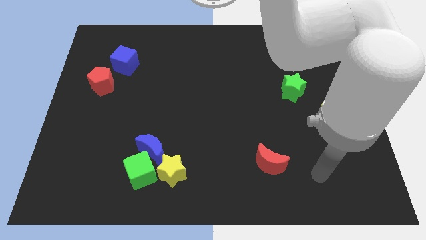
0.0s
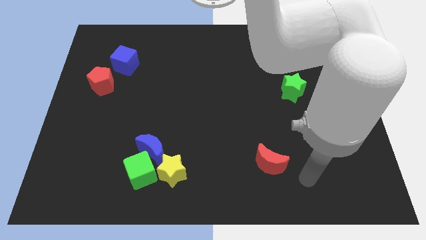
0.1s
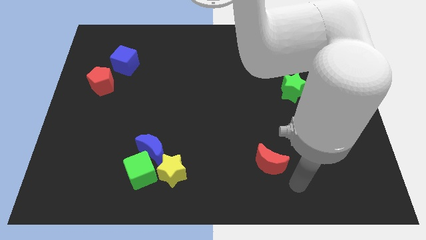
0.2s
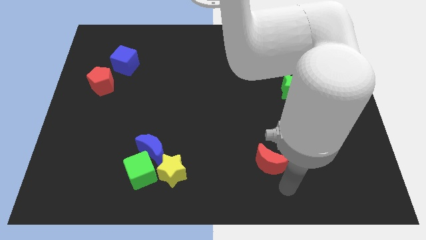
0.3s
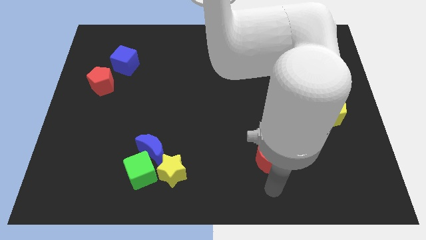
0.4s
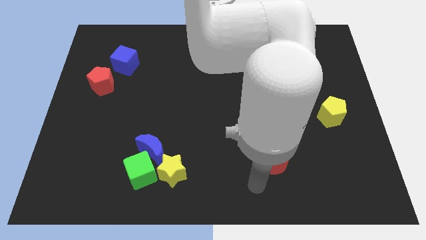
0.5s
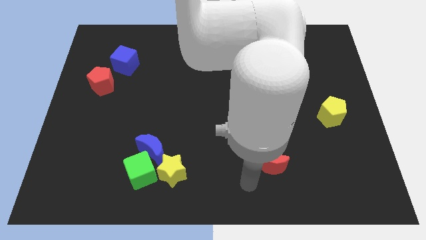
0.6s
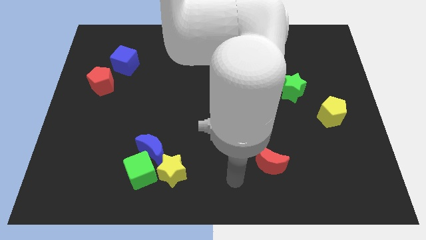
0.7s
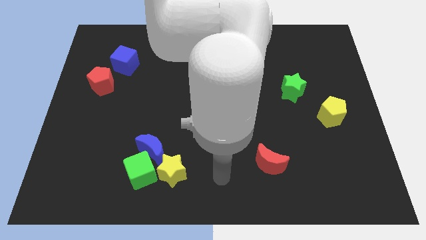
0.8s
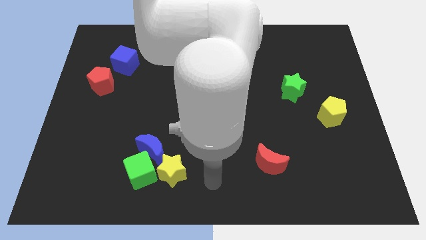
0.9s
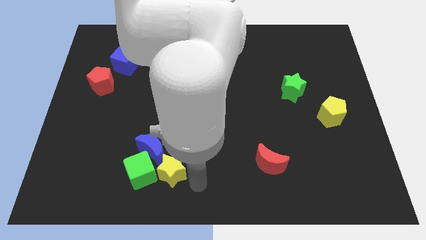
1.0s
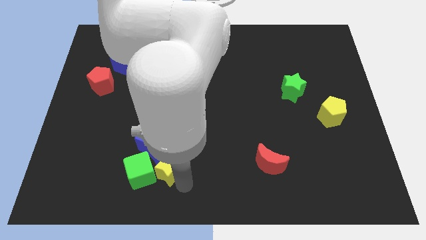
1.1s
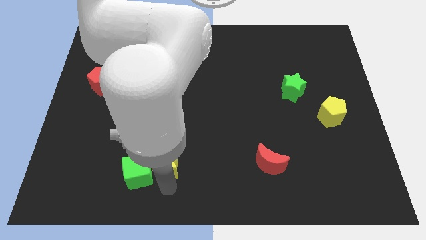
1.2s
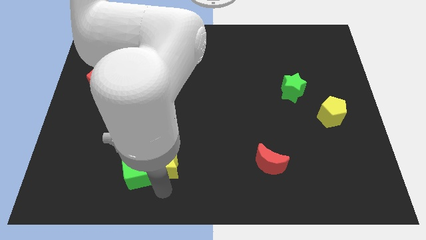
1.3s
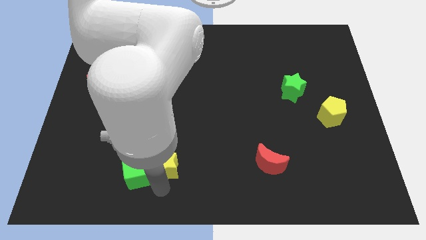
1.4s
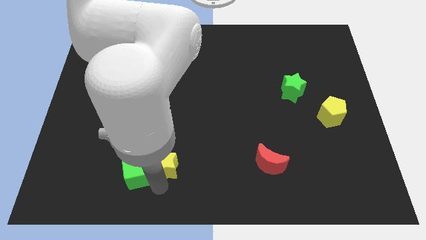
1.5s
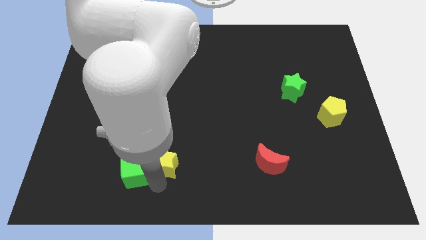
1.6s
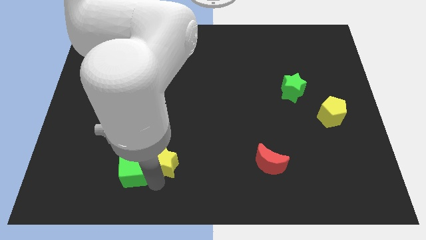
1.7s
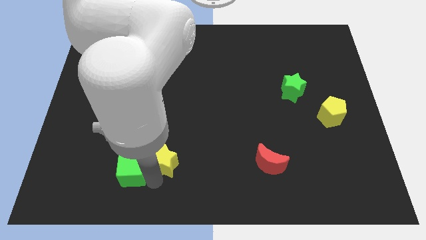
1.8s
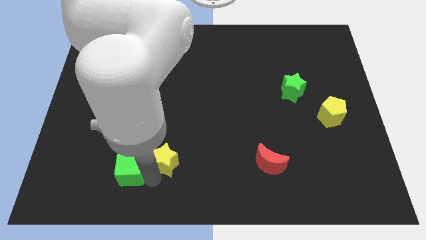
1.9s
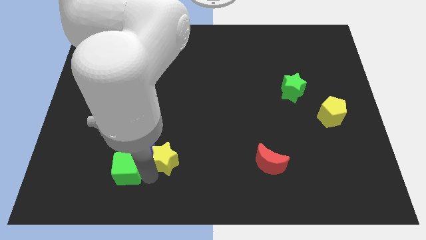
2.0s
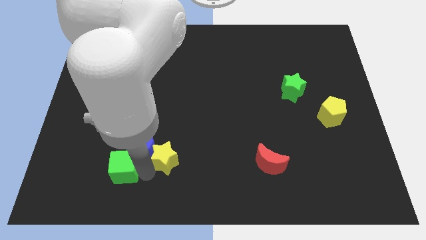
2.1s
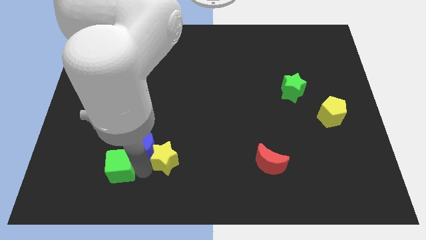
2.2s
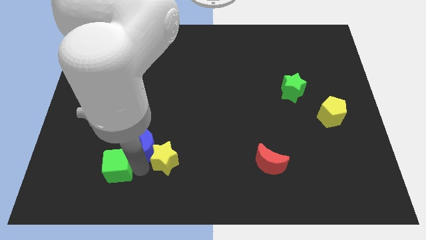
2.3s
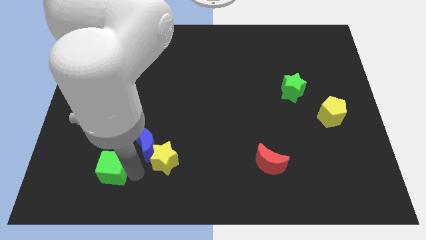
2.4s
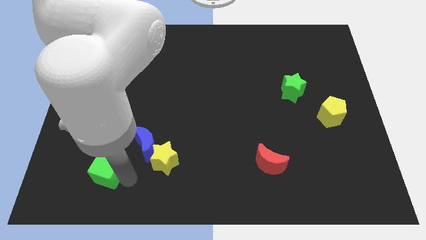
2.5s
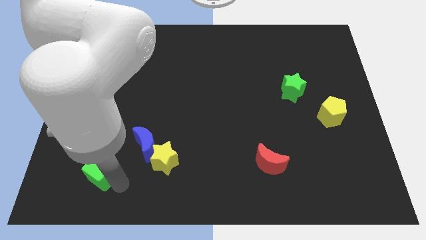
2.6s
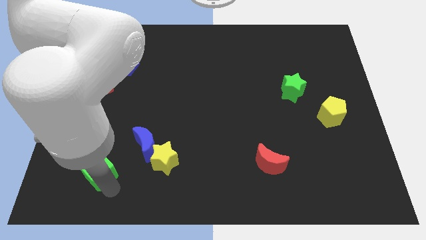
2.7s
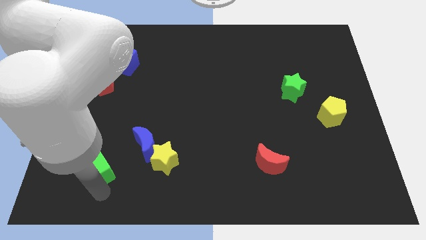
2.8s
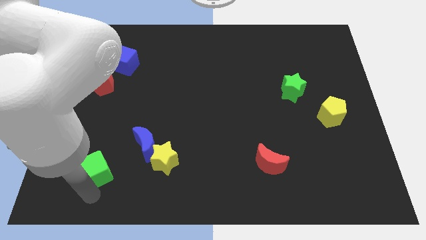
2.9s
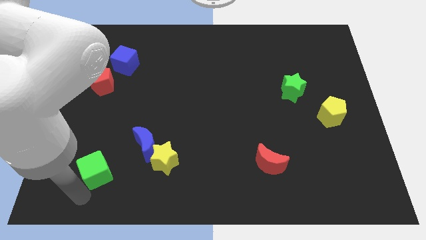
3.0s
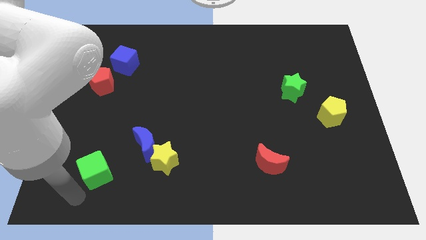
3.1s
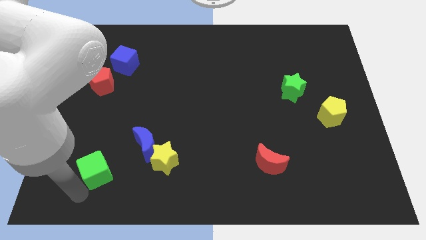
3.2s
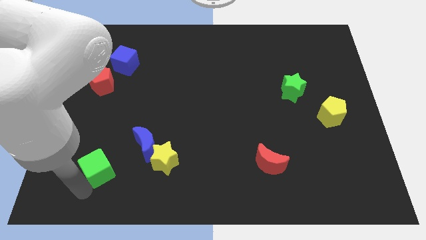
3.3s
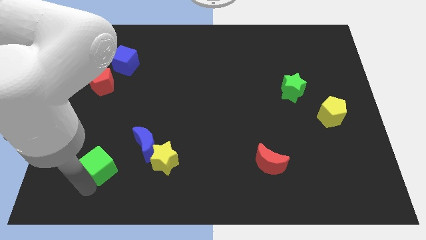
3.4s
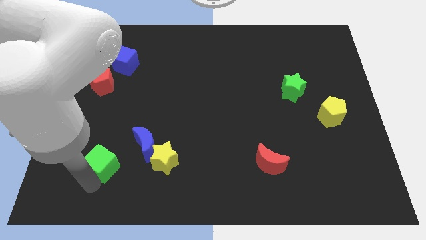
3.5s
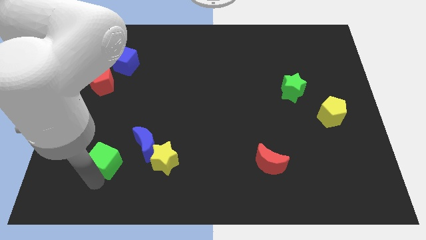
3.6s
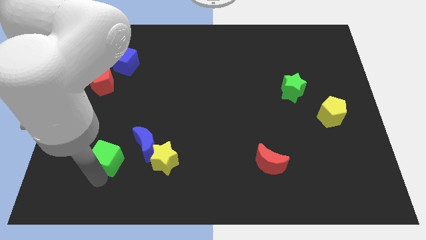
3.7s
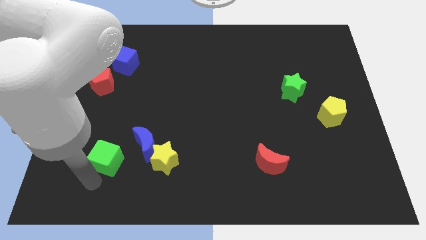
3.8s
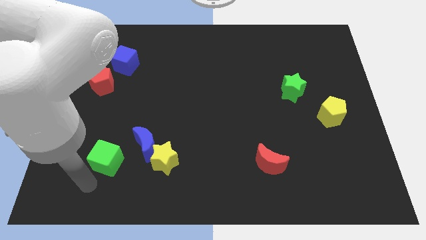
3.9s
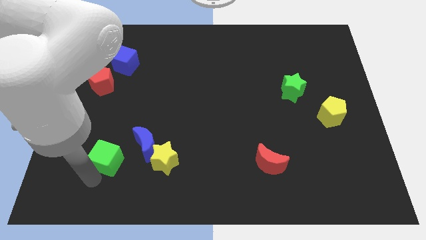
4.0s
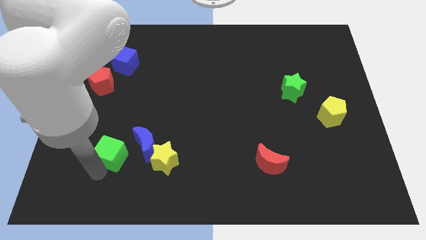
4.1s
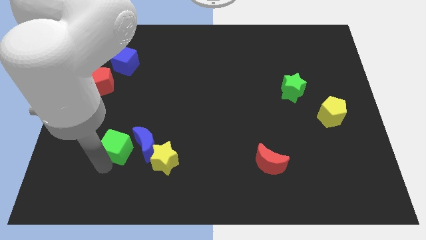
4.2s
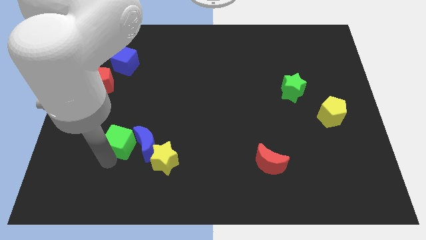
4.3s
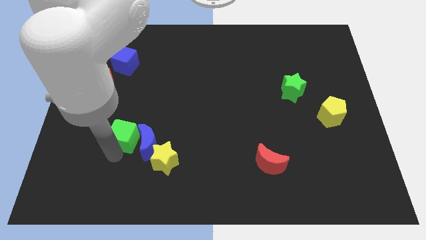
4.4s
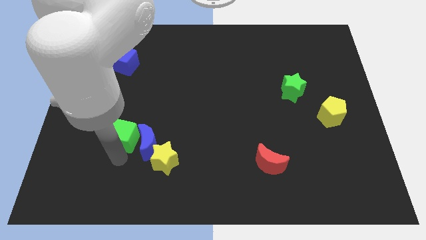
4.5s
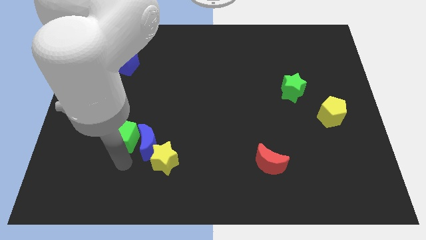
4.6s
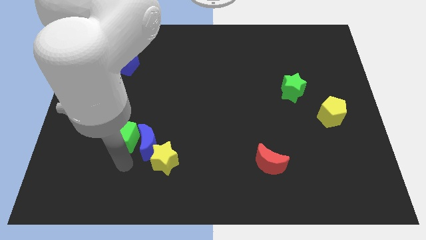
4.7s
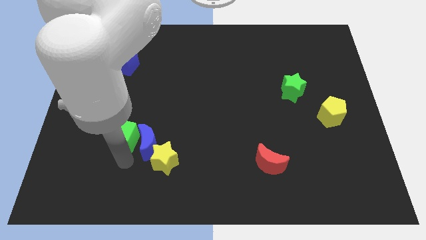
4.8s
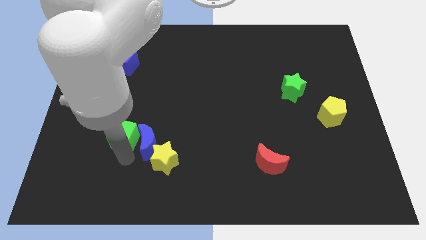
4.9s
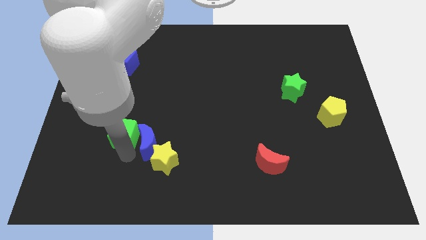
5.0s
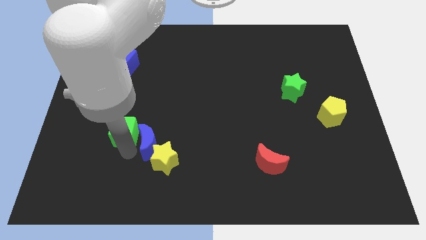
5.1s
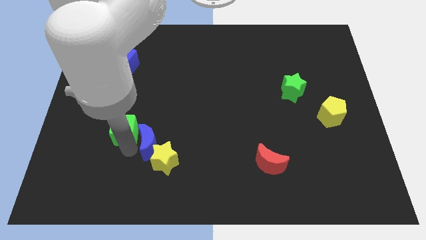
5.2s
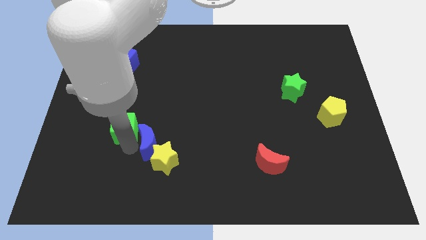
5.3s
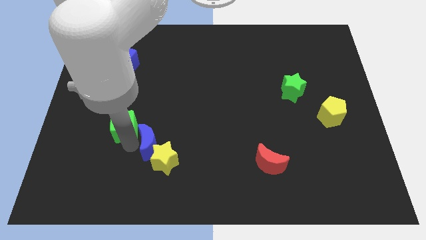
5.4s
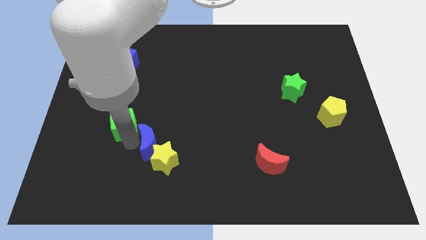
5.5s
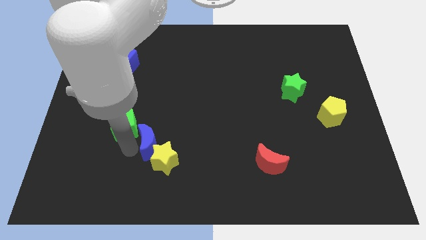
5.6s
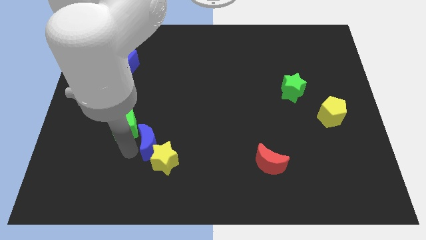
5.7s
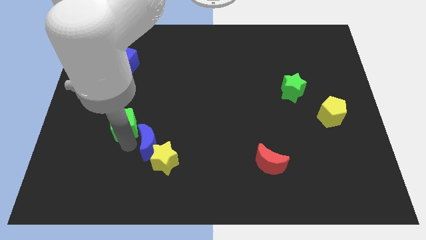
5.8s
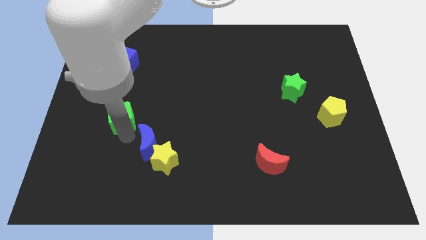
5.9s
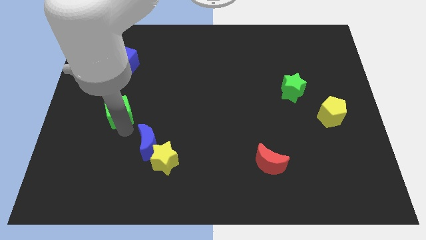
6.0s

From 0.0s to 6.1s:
slide the green cube to the bottom right side of the red pentagon

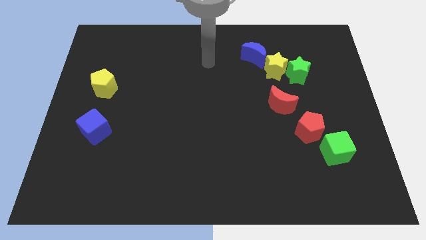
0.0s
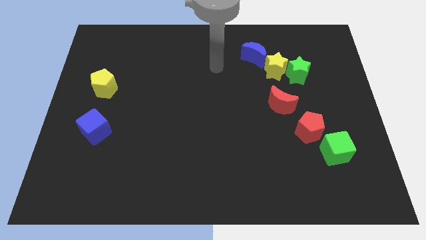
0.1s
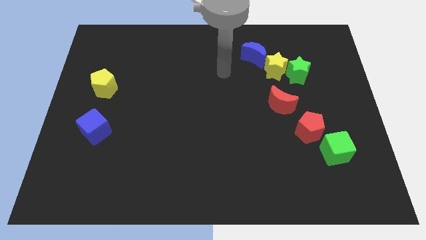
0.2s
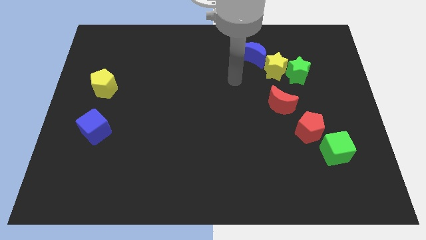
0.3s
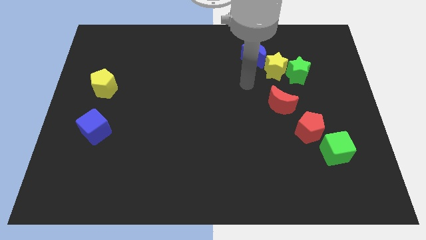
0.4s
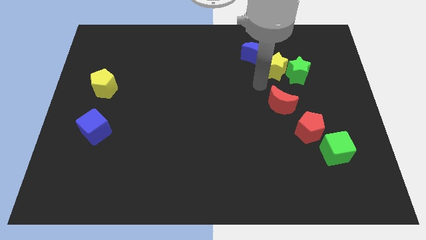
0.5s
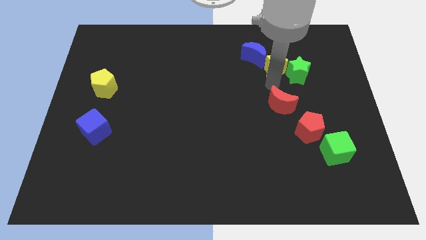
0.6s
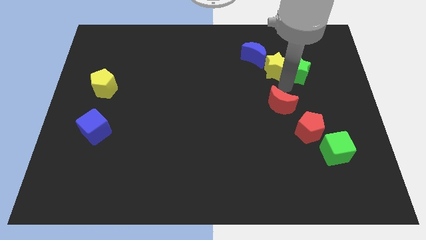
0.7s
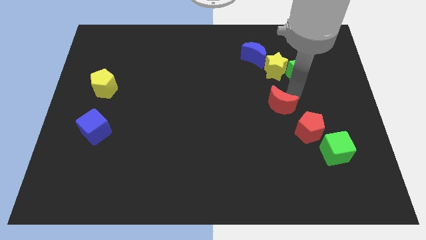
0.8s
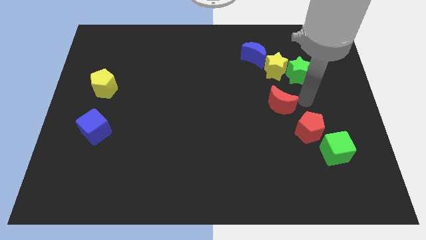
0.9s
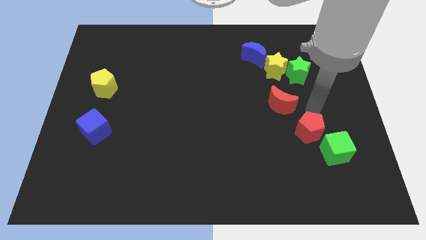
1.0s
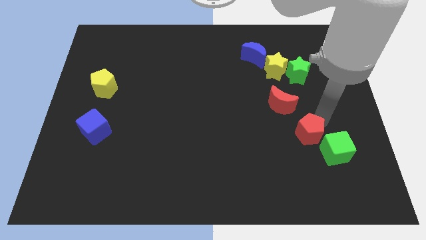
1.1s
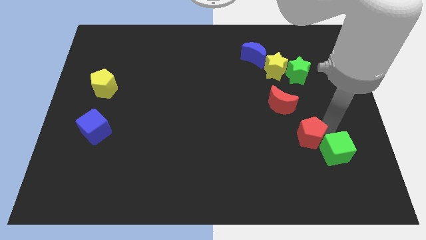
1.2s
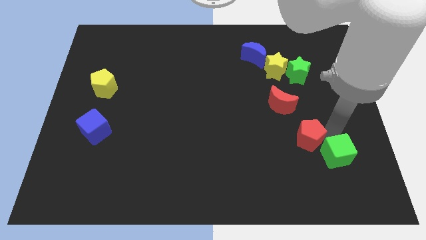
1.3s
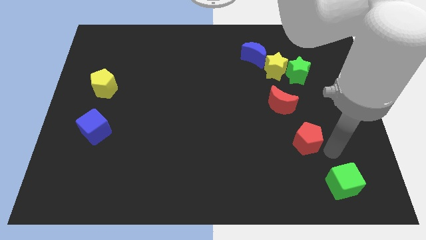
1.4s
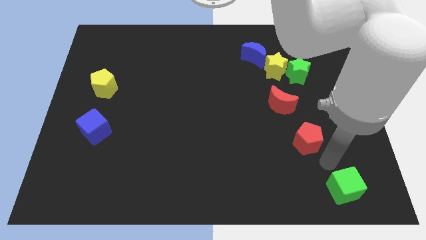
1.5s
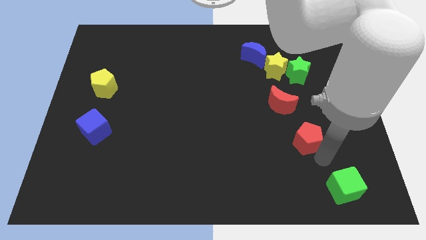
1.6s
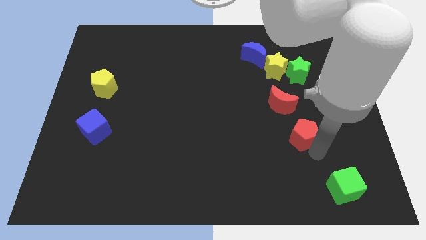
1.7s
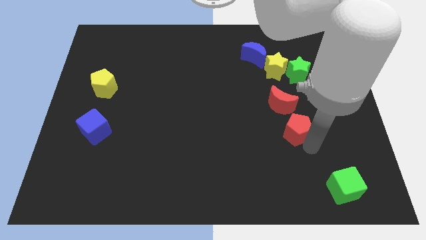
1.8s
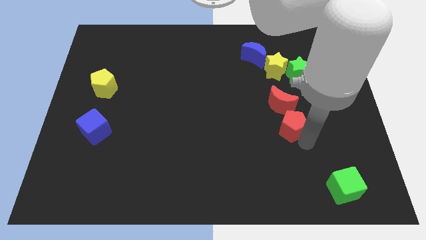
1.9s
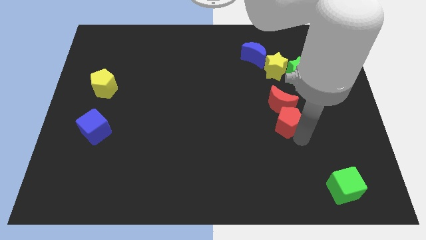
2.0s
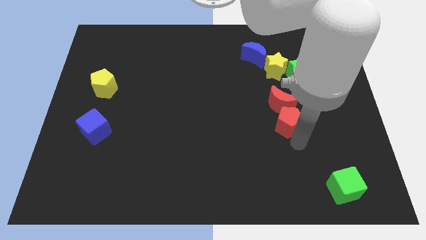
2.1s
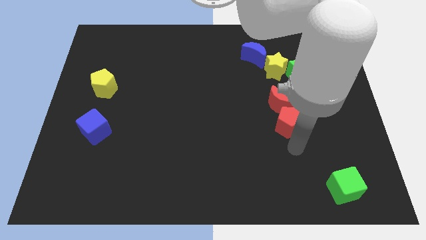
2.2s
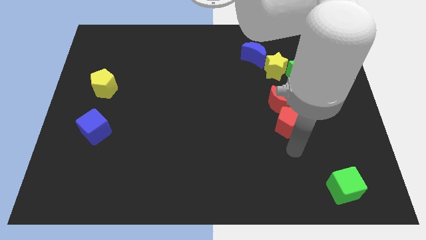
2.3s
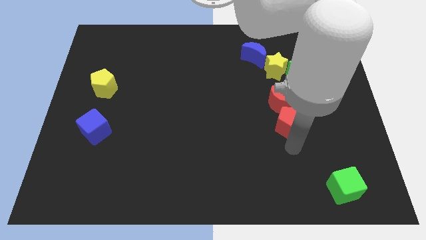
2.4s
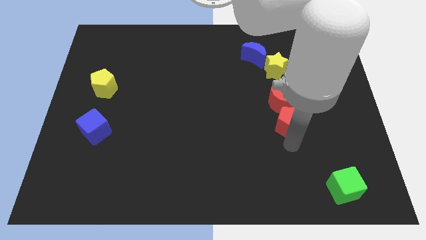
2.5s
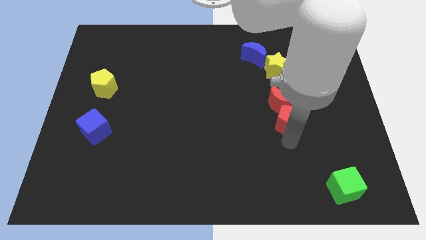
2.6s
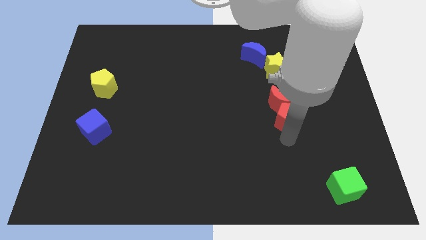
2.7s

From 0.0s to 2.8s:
move the red pentagon below the yellow star
